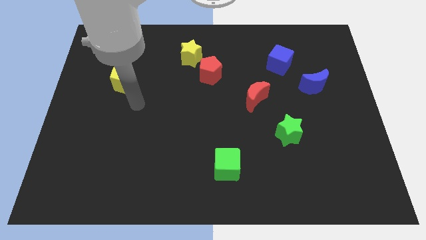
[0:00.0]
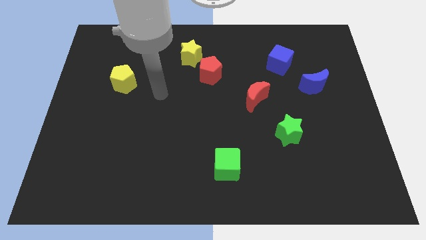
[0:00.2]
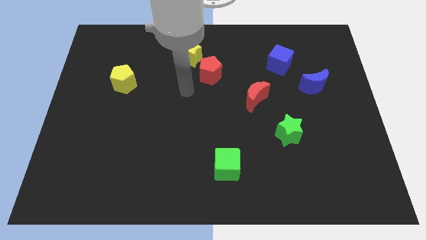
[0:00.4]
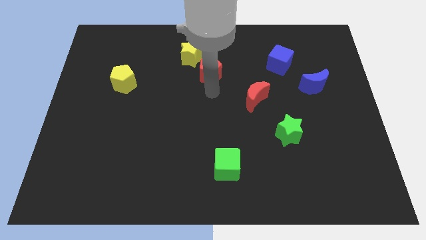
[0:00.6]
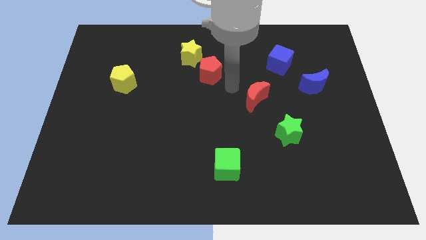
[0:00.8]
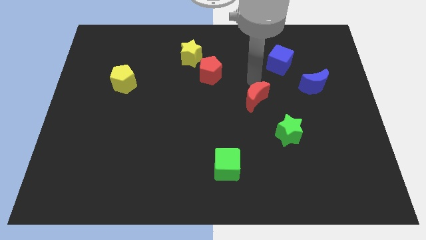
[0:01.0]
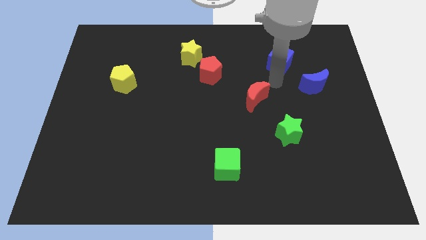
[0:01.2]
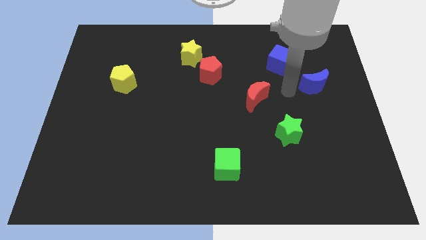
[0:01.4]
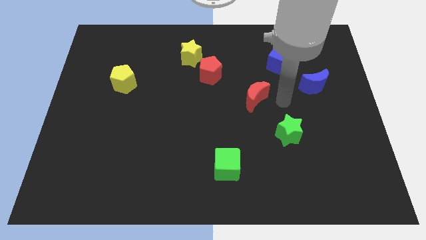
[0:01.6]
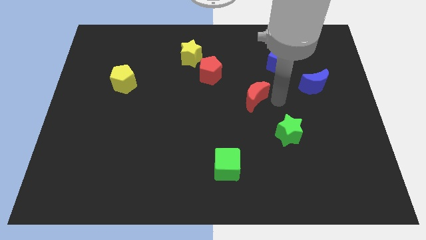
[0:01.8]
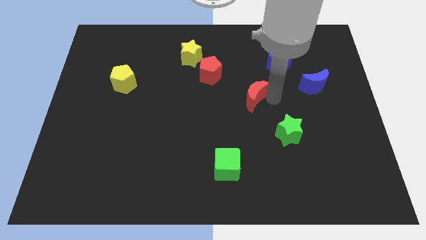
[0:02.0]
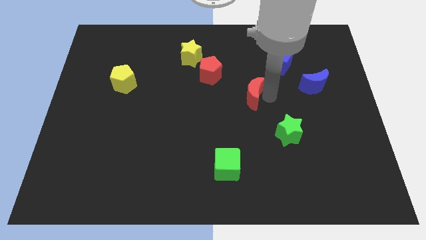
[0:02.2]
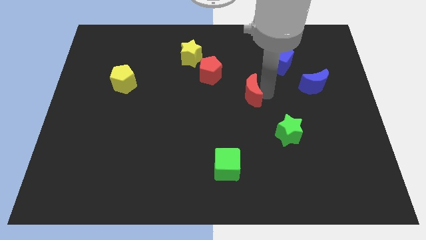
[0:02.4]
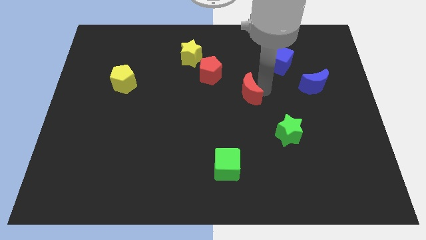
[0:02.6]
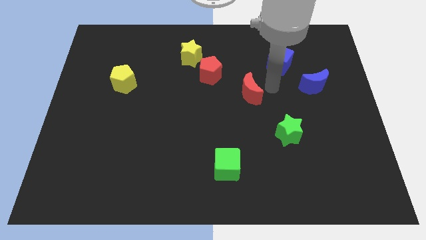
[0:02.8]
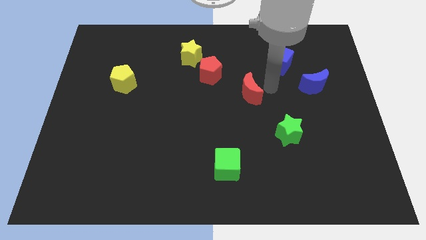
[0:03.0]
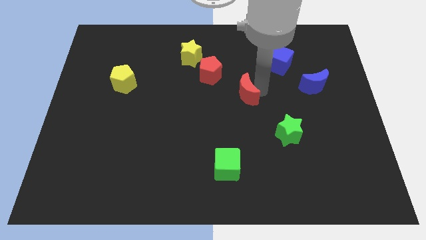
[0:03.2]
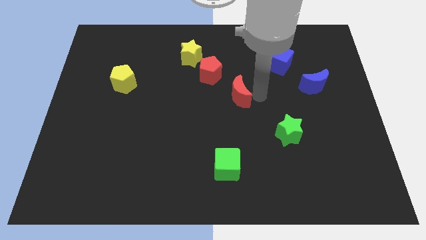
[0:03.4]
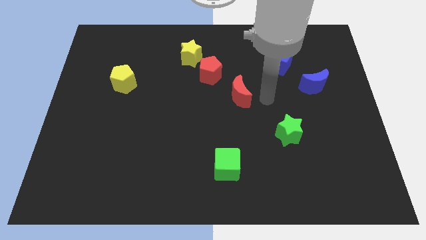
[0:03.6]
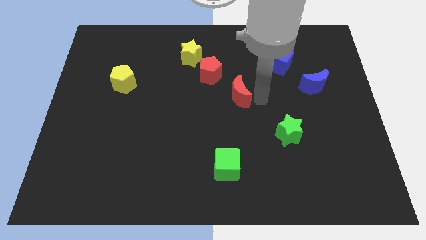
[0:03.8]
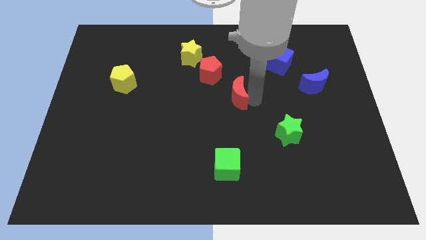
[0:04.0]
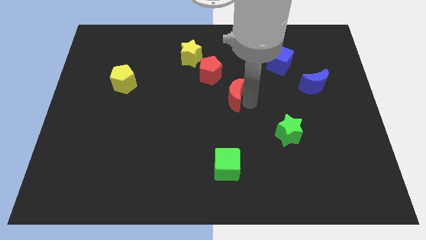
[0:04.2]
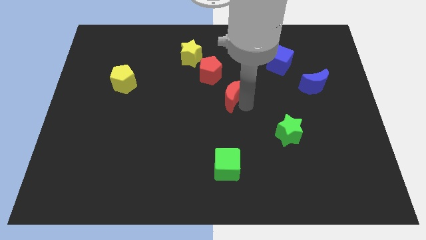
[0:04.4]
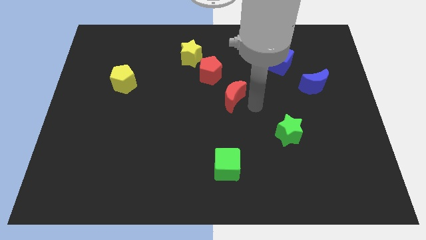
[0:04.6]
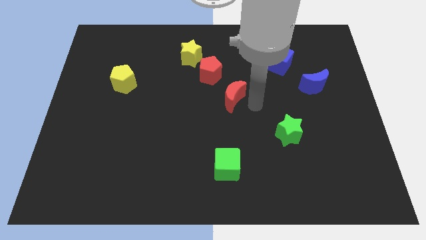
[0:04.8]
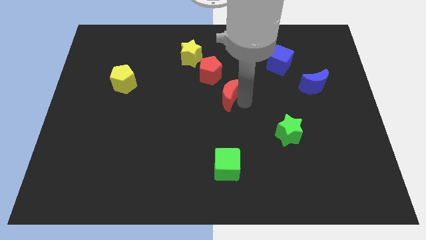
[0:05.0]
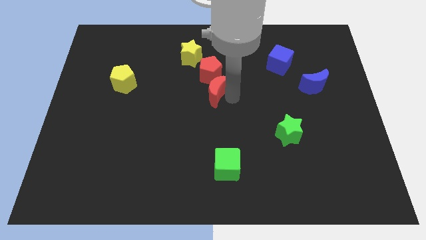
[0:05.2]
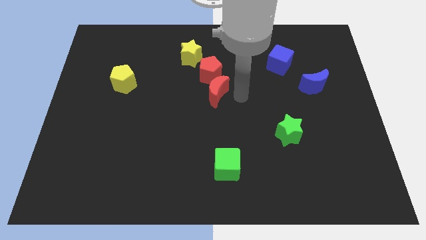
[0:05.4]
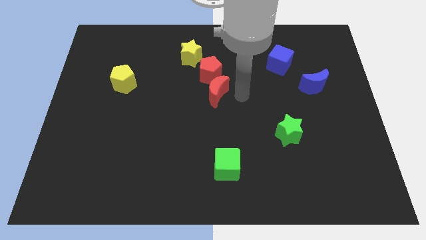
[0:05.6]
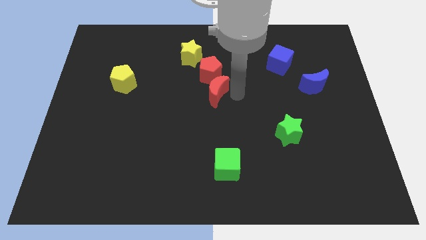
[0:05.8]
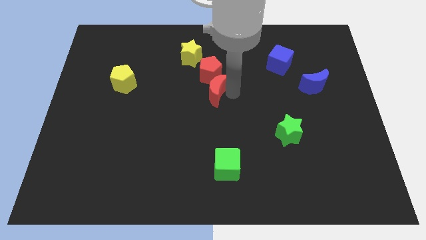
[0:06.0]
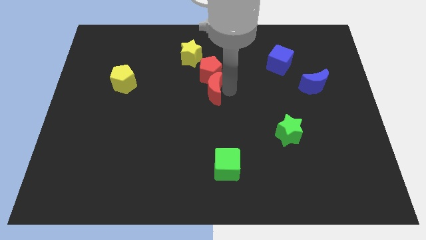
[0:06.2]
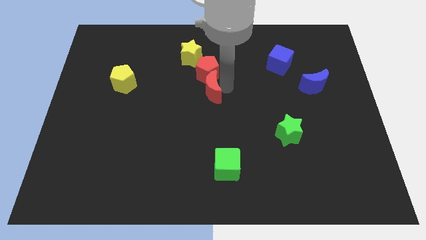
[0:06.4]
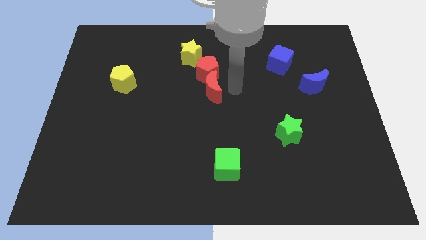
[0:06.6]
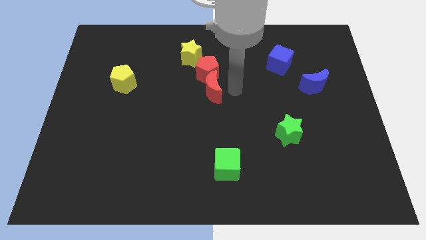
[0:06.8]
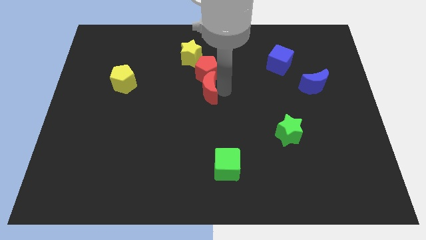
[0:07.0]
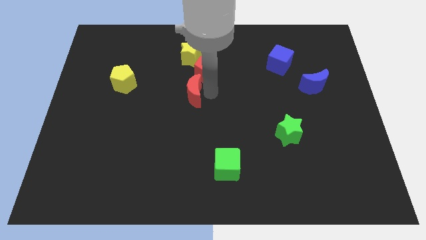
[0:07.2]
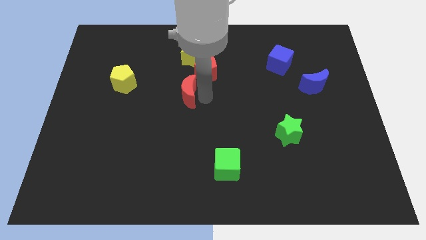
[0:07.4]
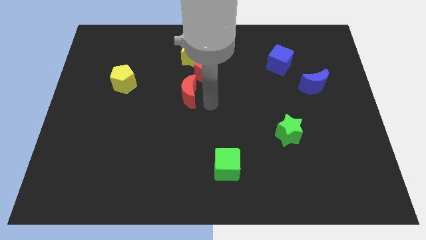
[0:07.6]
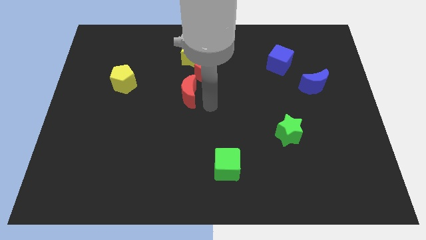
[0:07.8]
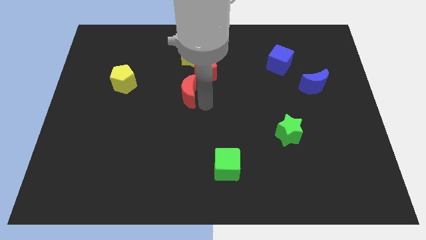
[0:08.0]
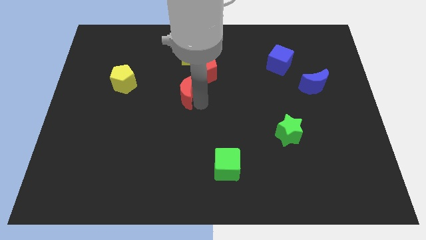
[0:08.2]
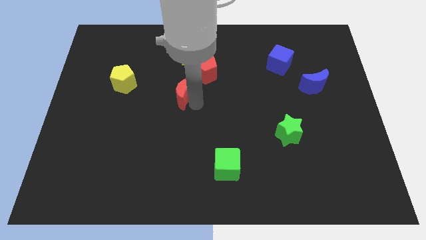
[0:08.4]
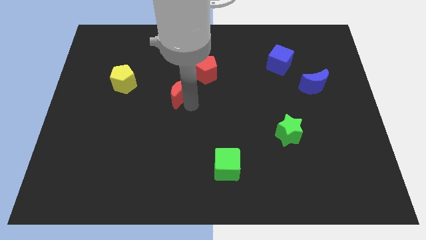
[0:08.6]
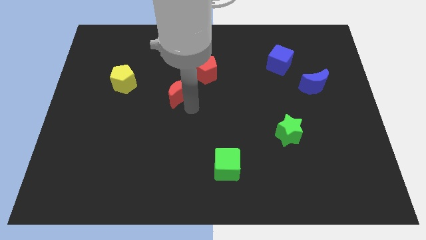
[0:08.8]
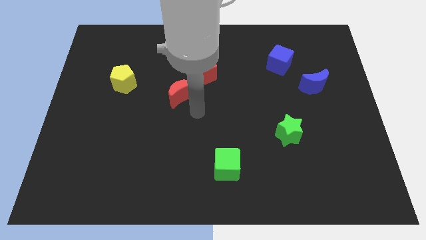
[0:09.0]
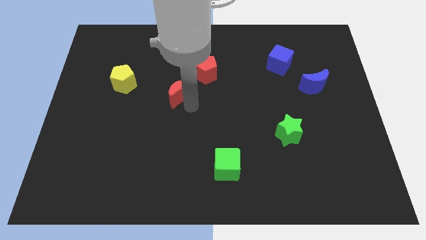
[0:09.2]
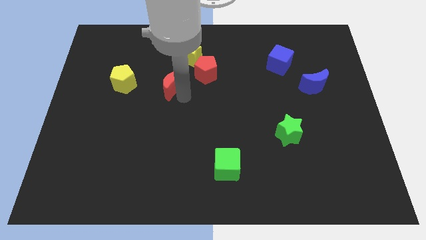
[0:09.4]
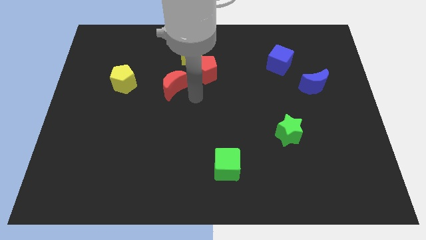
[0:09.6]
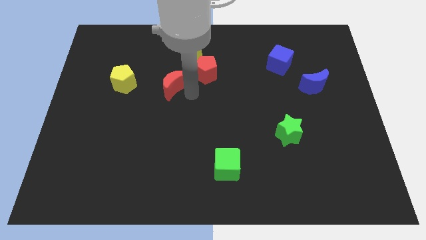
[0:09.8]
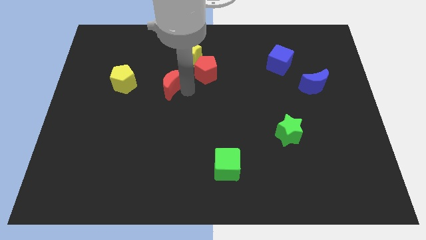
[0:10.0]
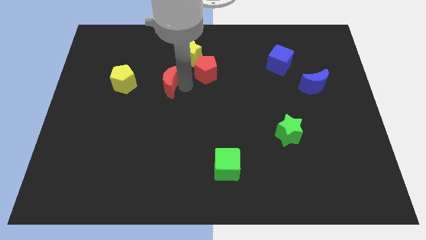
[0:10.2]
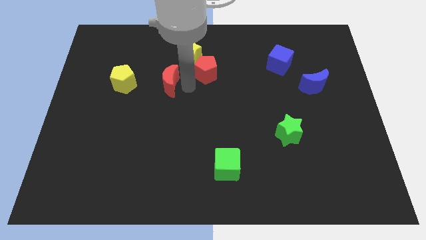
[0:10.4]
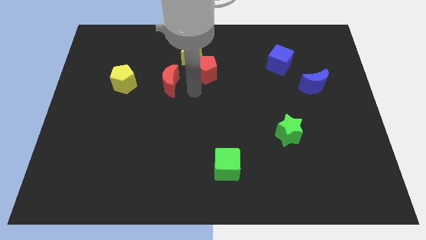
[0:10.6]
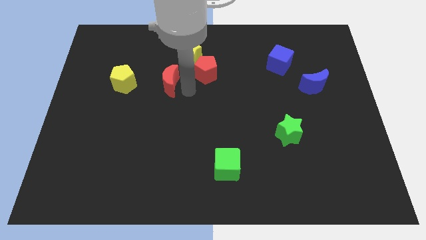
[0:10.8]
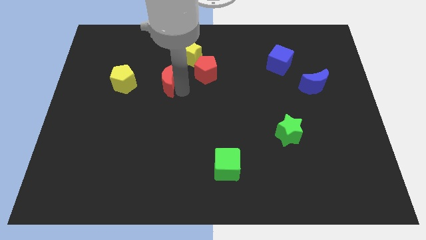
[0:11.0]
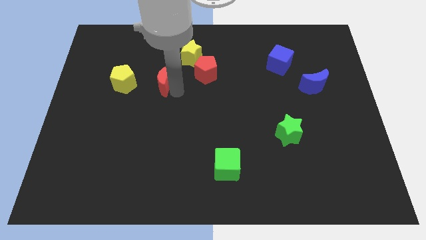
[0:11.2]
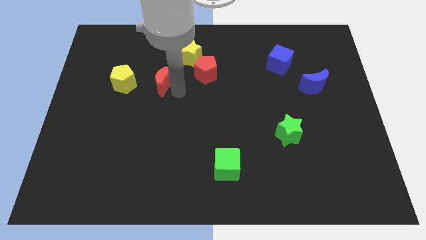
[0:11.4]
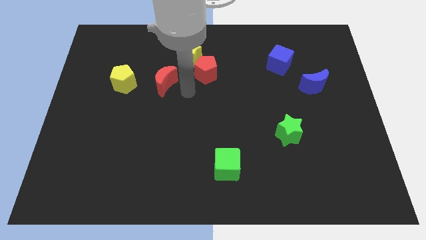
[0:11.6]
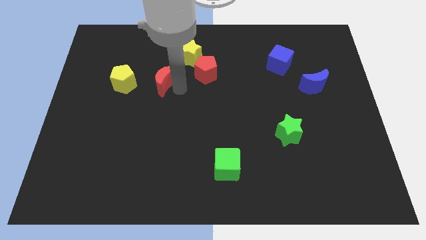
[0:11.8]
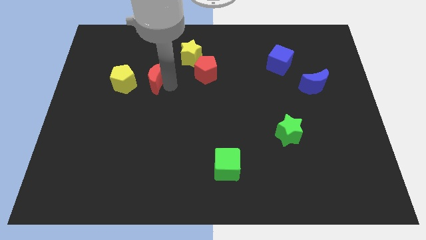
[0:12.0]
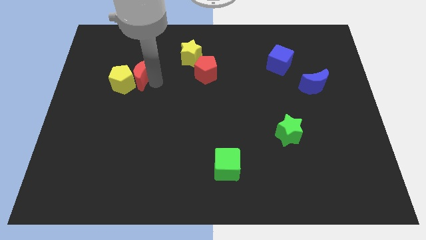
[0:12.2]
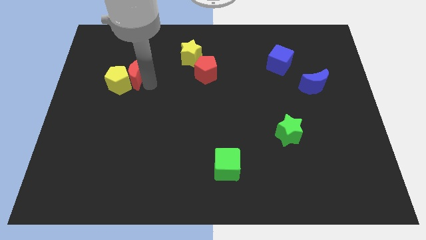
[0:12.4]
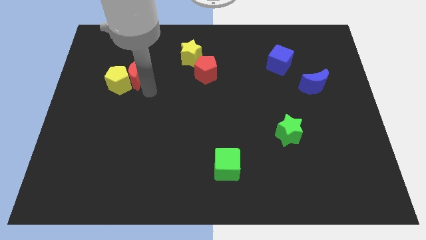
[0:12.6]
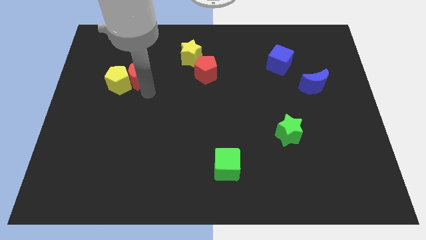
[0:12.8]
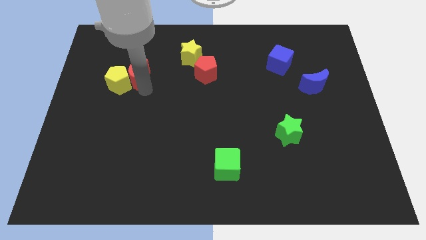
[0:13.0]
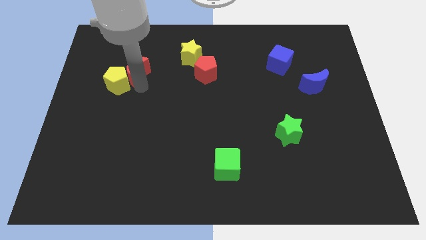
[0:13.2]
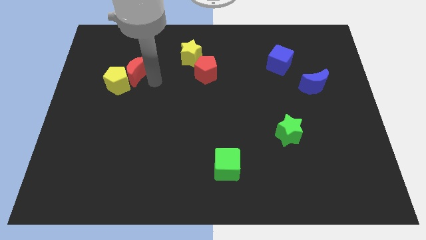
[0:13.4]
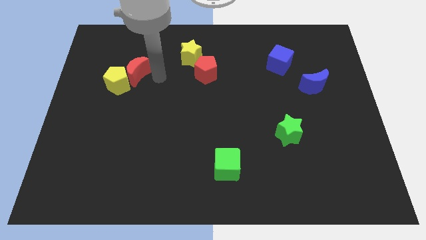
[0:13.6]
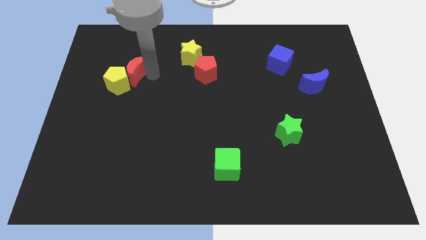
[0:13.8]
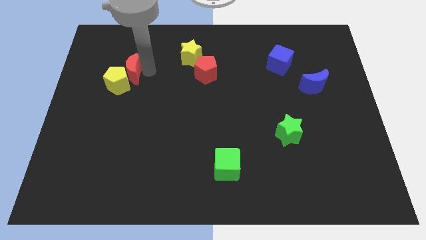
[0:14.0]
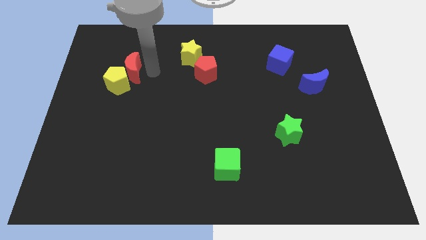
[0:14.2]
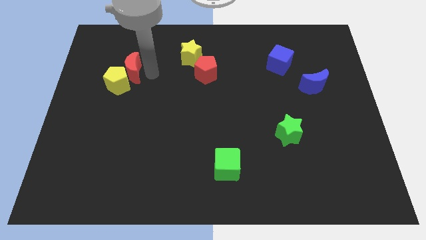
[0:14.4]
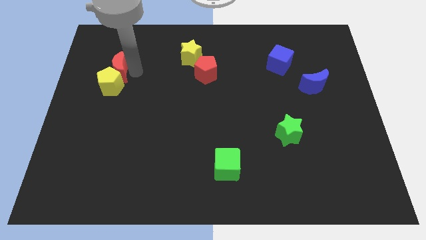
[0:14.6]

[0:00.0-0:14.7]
move the red moon to the top left of the yellow pentagon

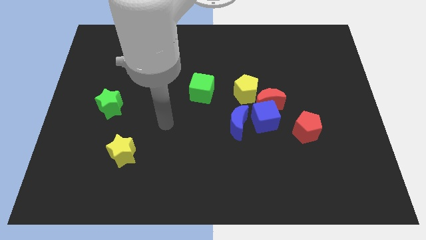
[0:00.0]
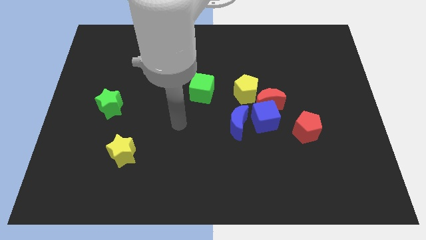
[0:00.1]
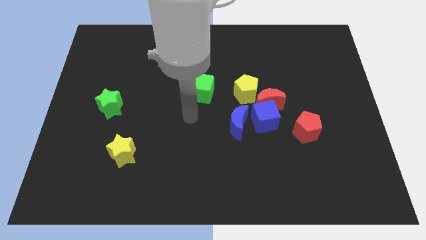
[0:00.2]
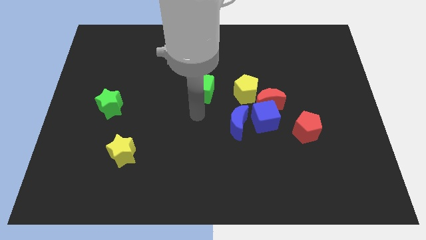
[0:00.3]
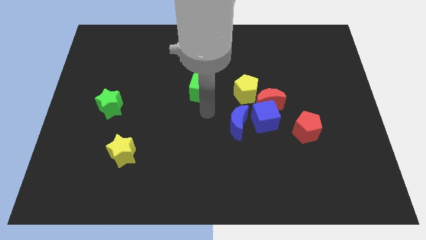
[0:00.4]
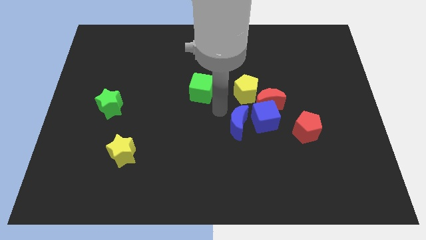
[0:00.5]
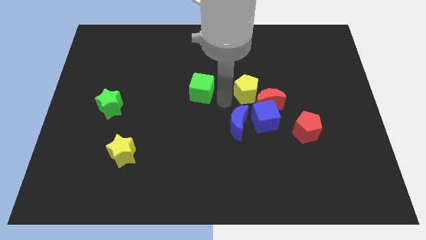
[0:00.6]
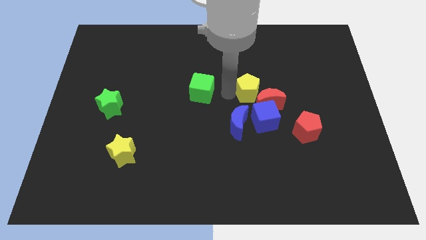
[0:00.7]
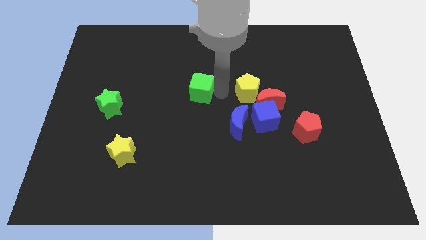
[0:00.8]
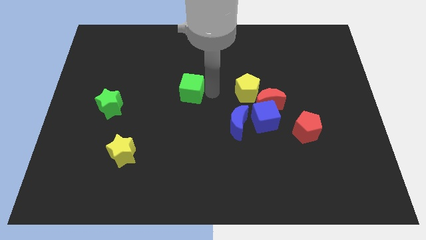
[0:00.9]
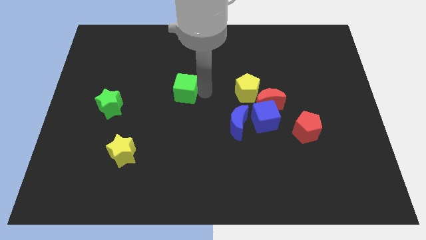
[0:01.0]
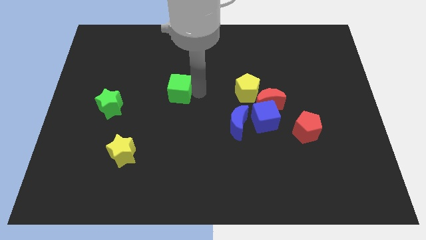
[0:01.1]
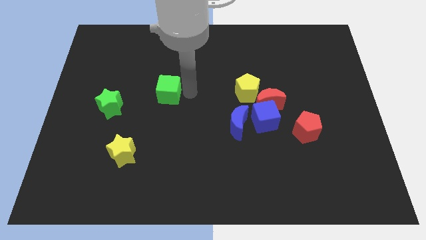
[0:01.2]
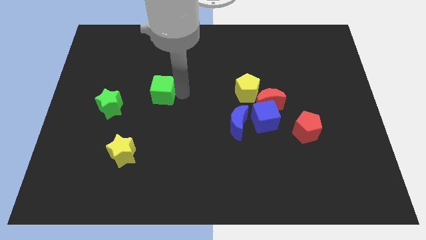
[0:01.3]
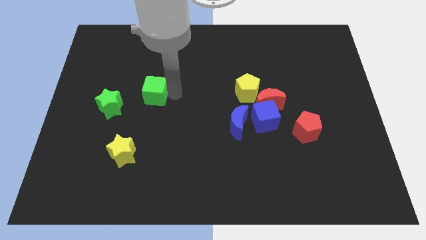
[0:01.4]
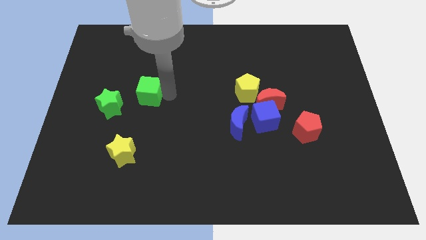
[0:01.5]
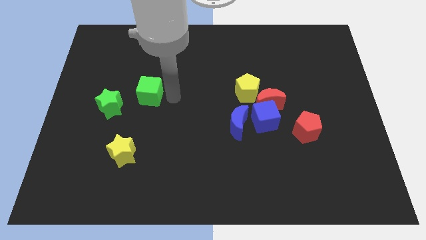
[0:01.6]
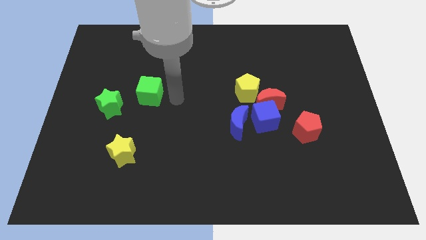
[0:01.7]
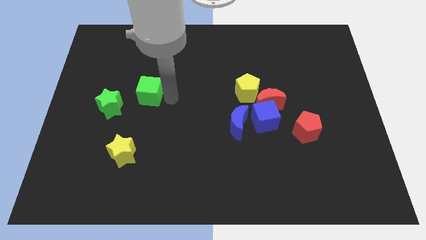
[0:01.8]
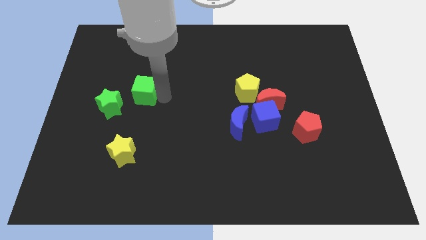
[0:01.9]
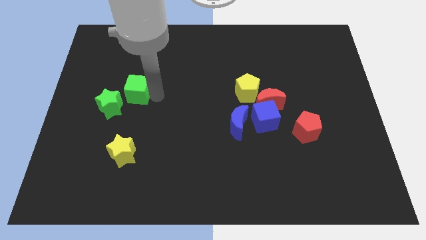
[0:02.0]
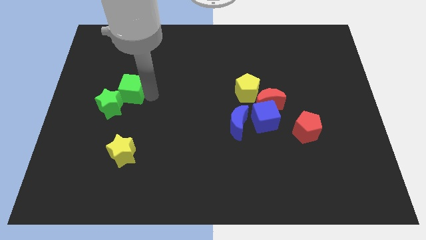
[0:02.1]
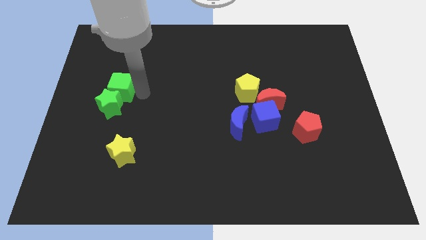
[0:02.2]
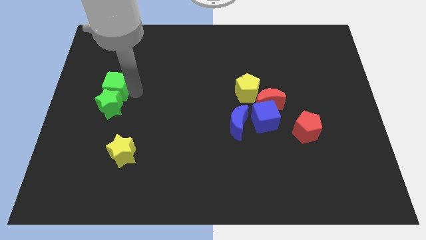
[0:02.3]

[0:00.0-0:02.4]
slide the green cube to the top left side of the green star
